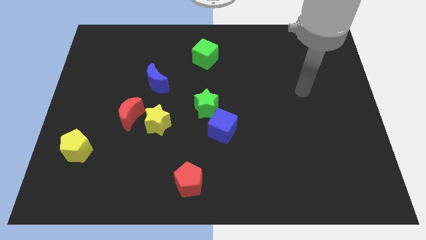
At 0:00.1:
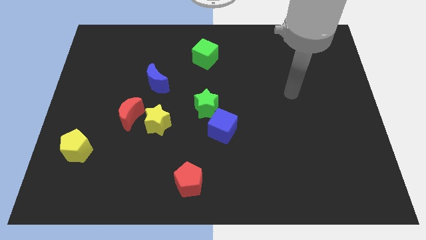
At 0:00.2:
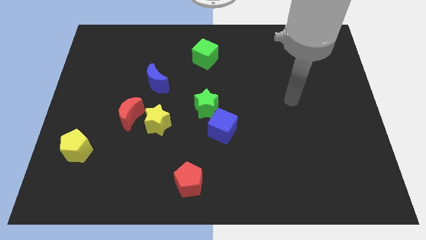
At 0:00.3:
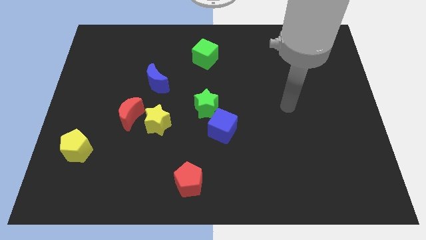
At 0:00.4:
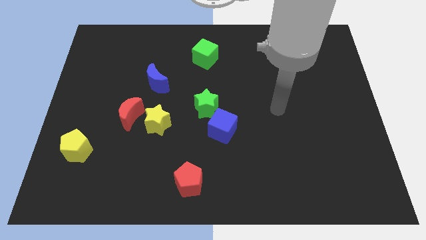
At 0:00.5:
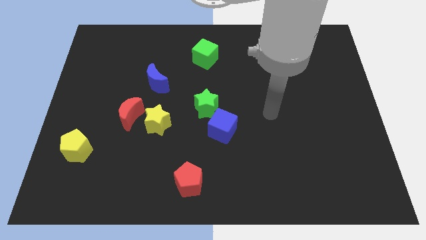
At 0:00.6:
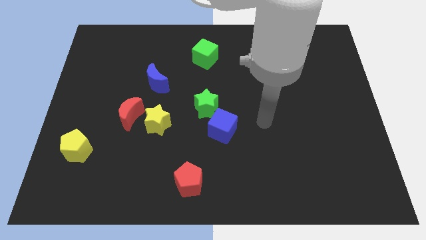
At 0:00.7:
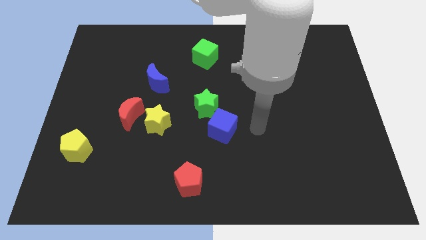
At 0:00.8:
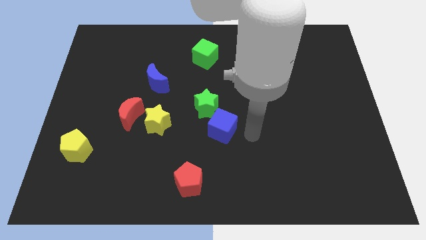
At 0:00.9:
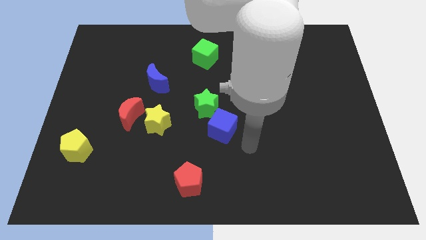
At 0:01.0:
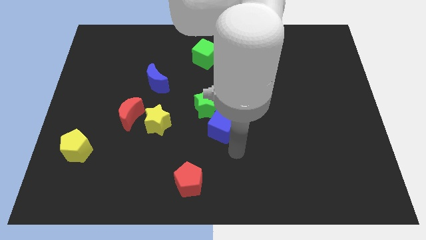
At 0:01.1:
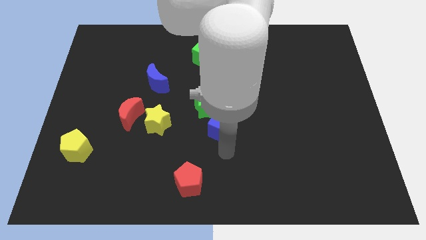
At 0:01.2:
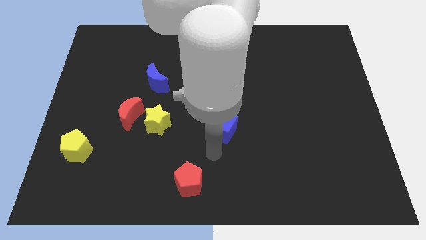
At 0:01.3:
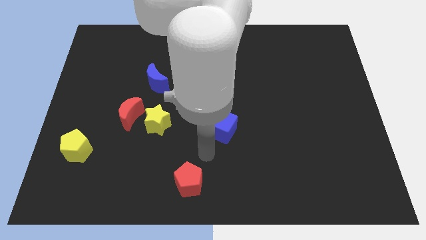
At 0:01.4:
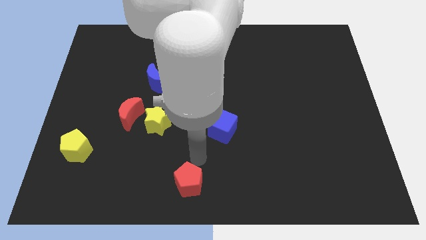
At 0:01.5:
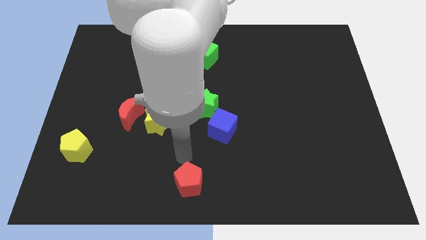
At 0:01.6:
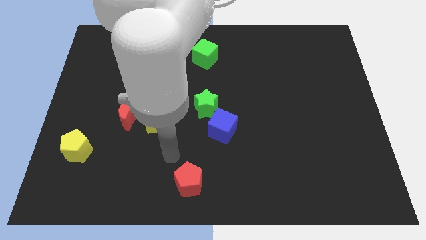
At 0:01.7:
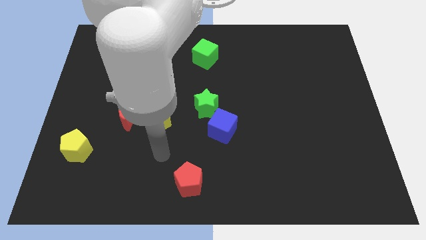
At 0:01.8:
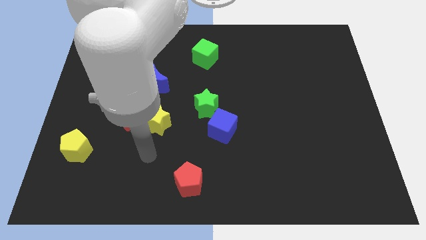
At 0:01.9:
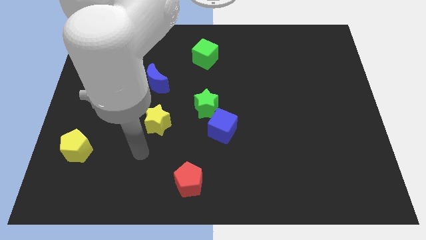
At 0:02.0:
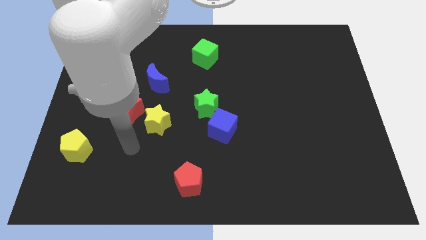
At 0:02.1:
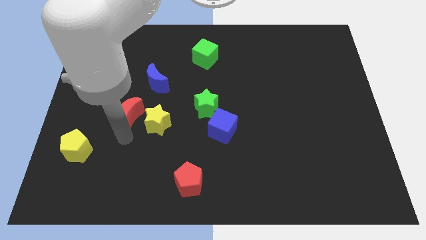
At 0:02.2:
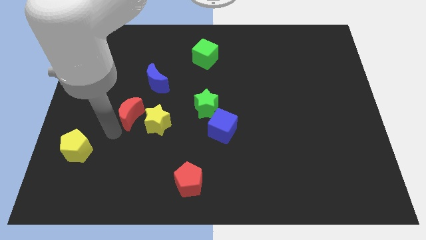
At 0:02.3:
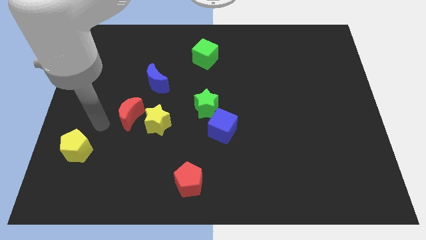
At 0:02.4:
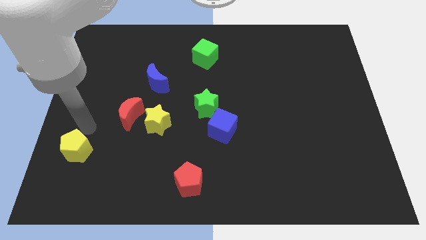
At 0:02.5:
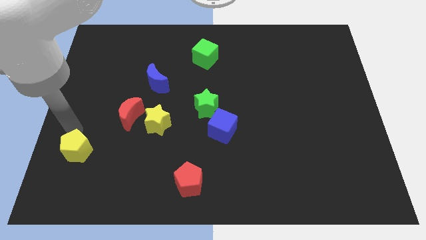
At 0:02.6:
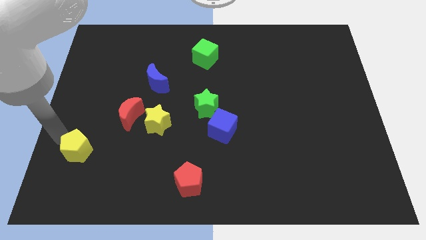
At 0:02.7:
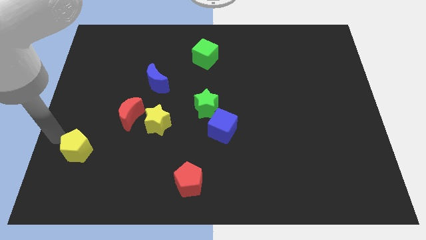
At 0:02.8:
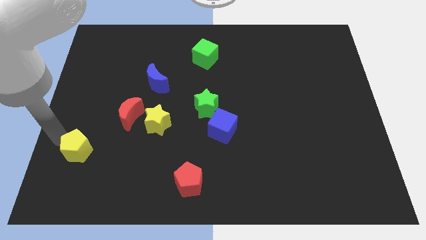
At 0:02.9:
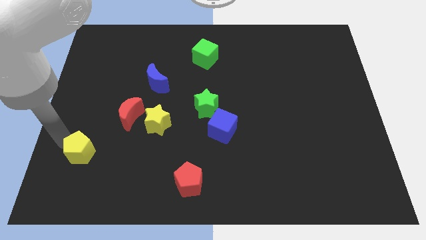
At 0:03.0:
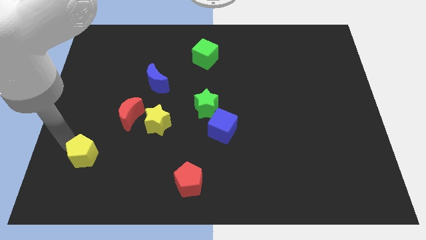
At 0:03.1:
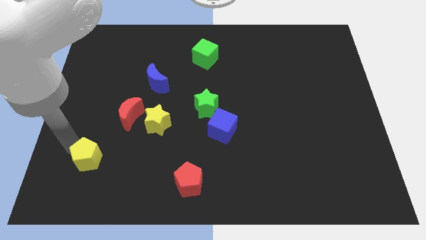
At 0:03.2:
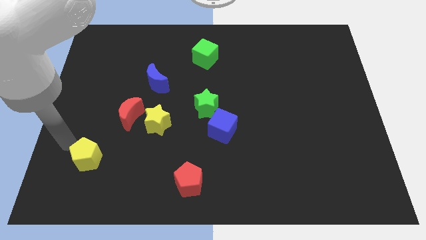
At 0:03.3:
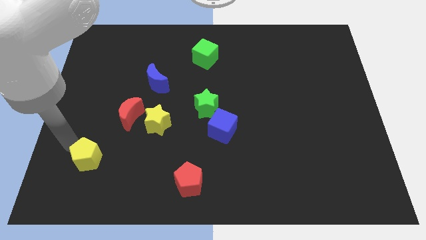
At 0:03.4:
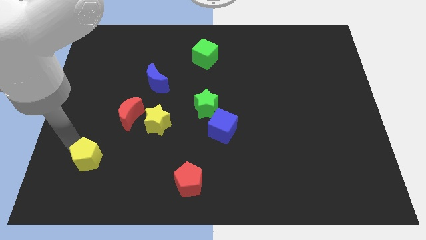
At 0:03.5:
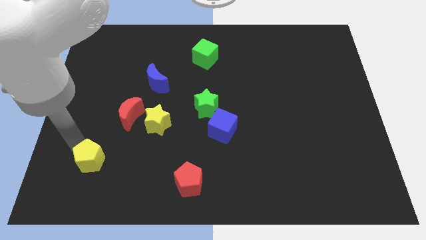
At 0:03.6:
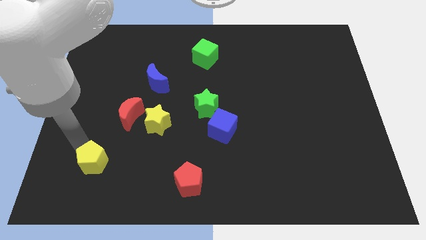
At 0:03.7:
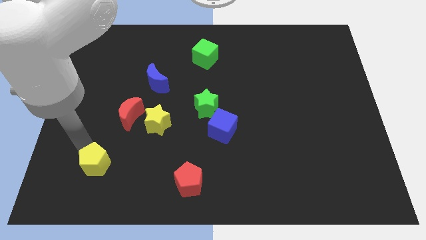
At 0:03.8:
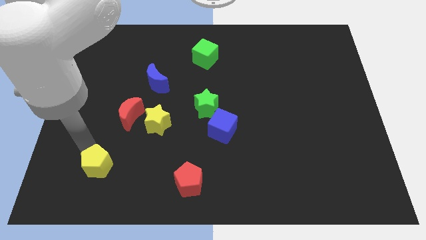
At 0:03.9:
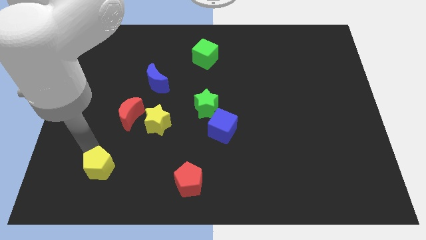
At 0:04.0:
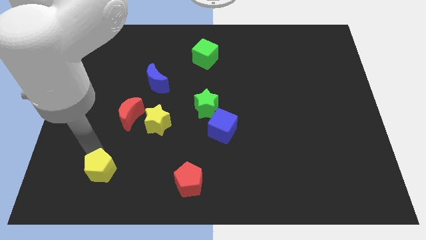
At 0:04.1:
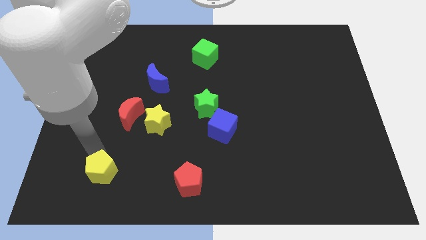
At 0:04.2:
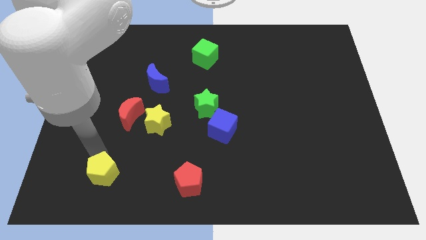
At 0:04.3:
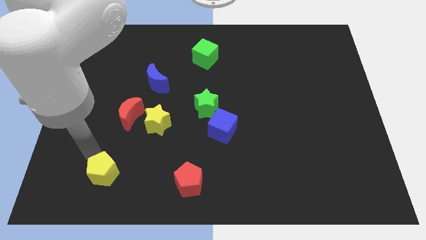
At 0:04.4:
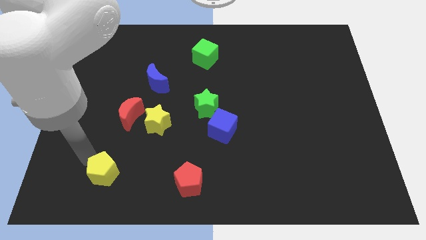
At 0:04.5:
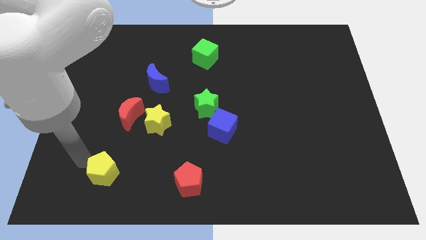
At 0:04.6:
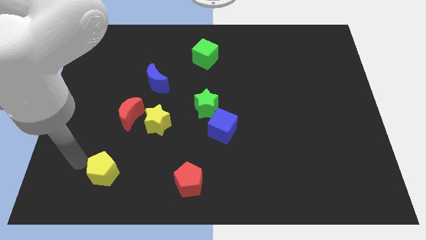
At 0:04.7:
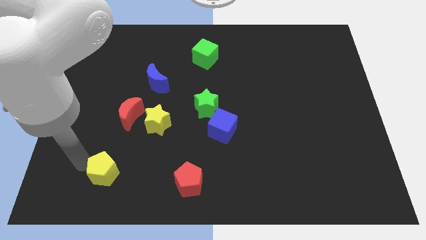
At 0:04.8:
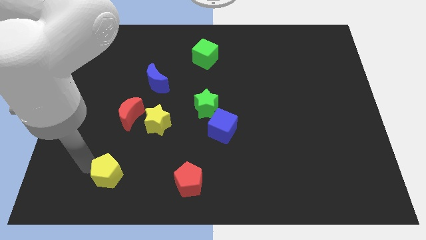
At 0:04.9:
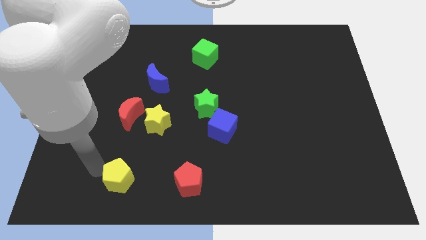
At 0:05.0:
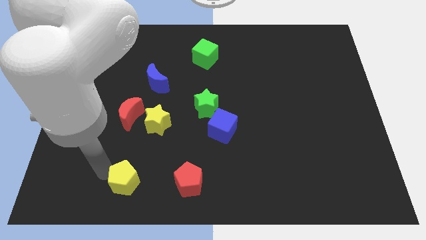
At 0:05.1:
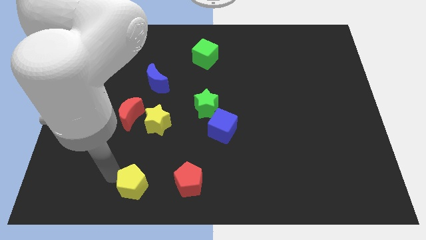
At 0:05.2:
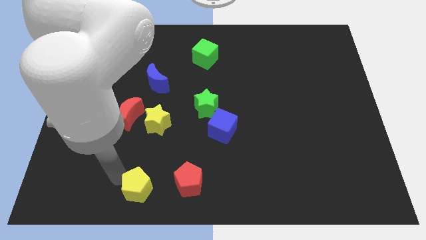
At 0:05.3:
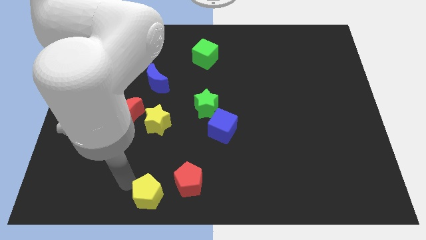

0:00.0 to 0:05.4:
slide the yellow pentagon to the bottom side

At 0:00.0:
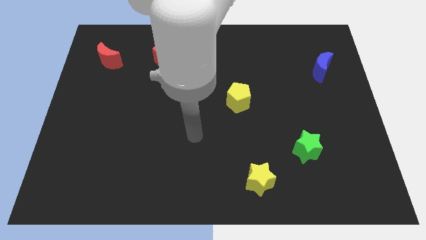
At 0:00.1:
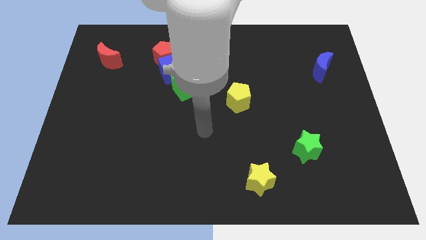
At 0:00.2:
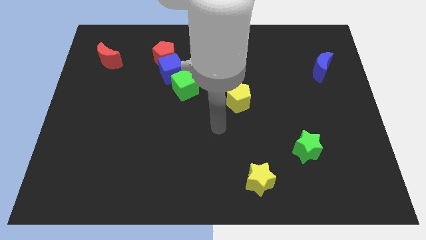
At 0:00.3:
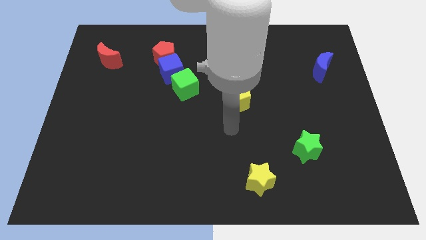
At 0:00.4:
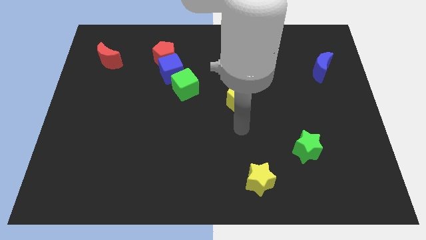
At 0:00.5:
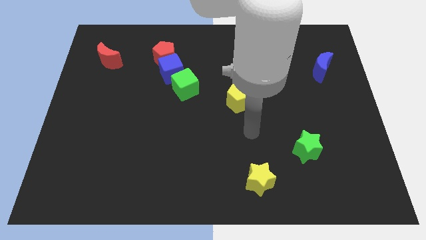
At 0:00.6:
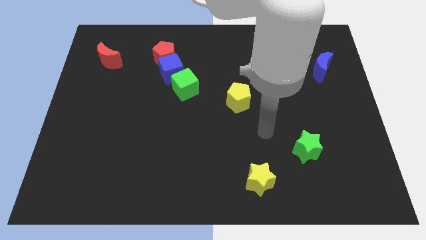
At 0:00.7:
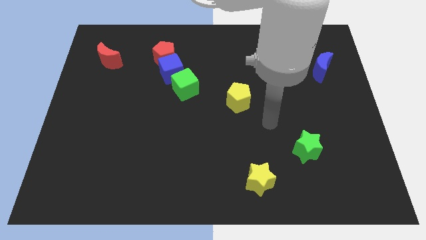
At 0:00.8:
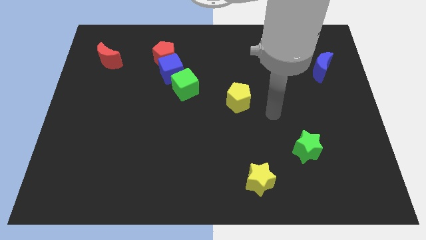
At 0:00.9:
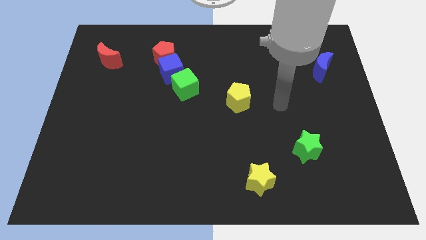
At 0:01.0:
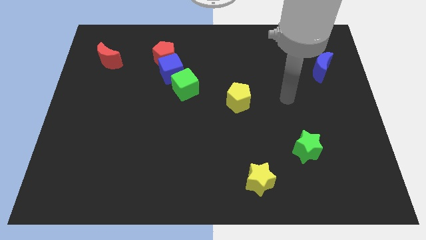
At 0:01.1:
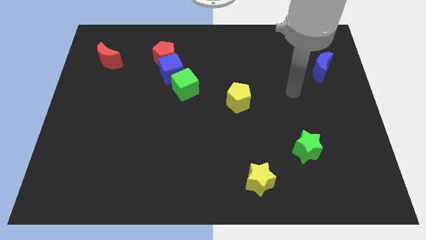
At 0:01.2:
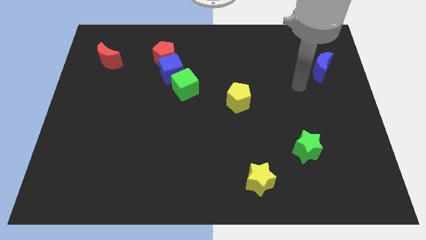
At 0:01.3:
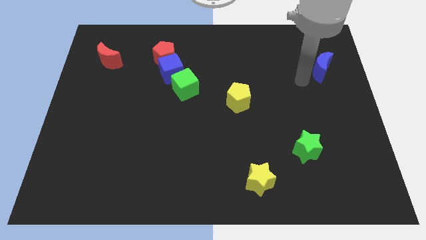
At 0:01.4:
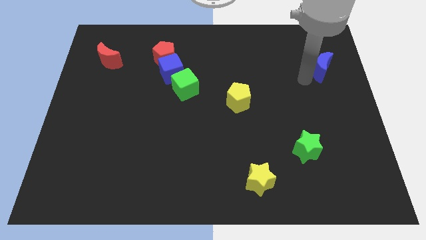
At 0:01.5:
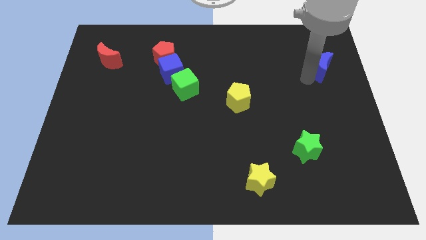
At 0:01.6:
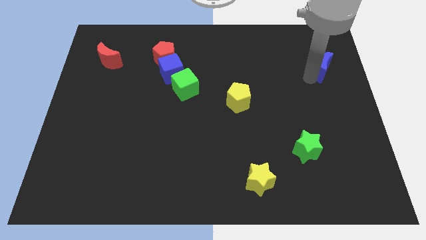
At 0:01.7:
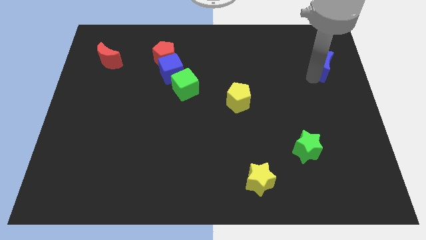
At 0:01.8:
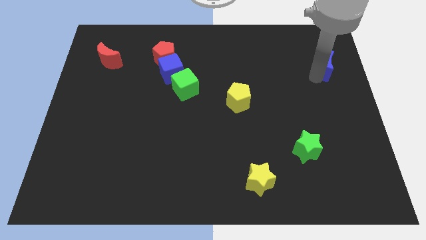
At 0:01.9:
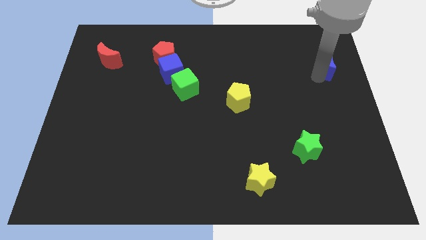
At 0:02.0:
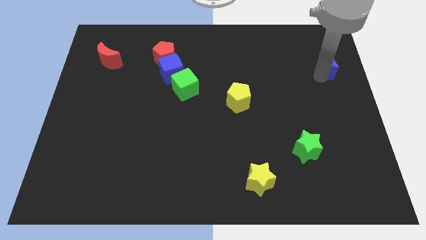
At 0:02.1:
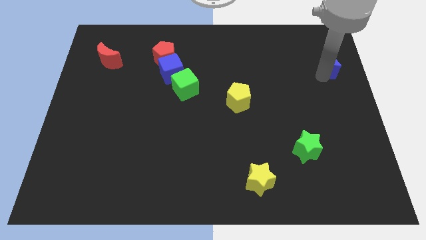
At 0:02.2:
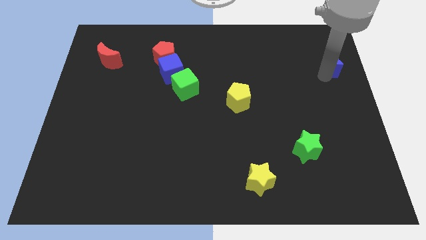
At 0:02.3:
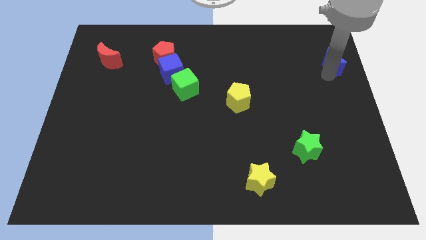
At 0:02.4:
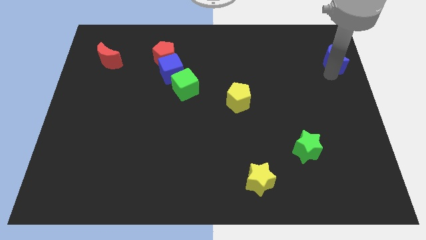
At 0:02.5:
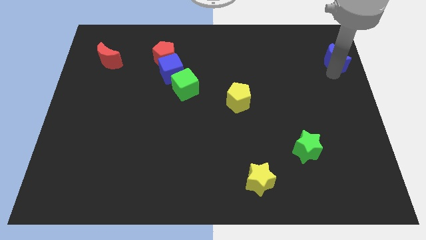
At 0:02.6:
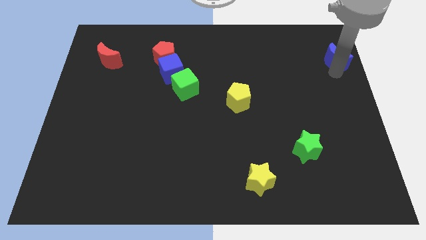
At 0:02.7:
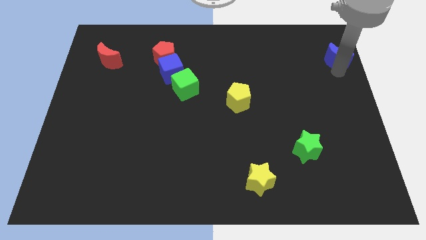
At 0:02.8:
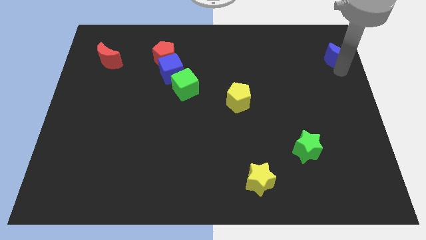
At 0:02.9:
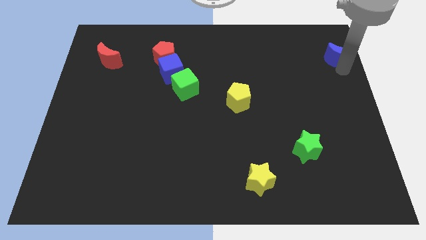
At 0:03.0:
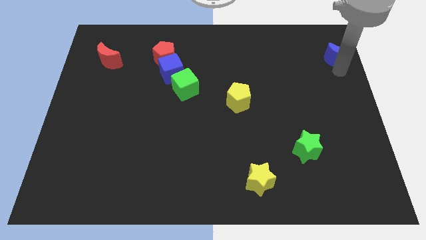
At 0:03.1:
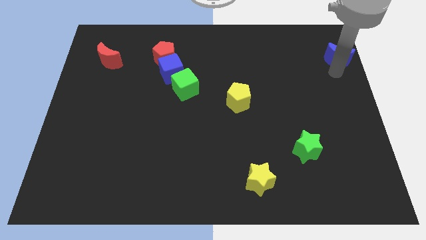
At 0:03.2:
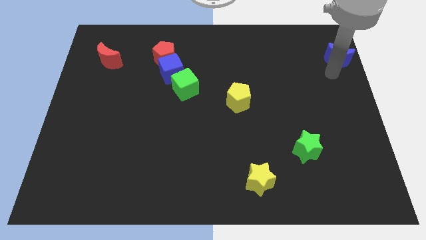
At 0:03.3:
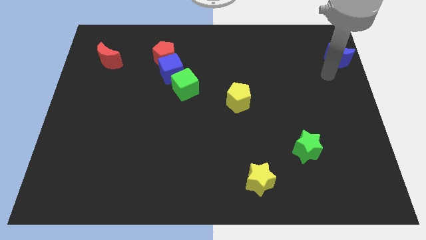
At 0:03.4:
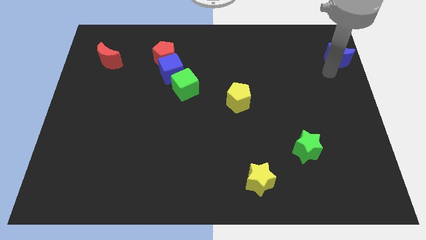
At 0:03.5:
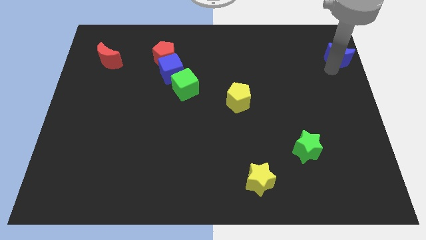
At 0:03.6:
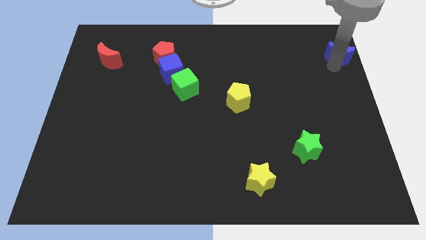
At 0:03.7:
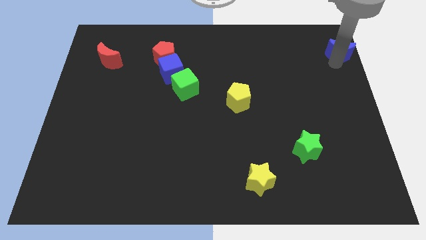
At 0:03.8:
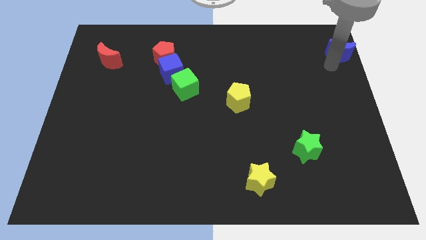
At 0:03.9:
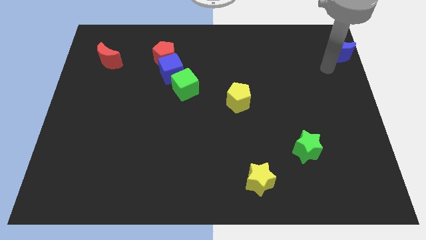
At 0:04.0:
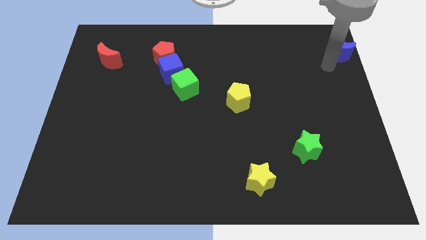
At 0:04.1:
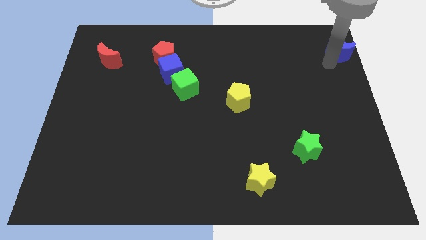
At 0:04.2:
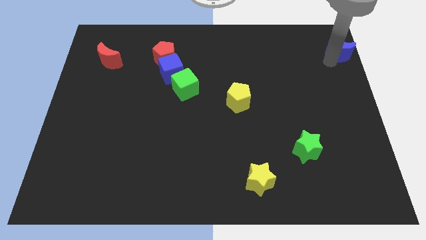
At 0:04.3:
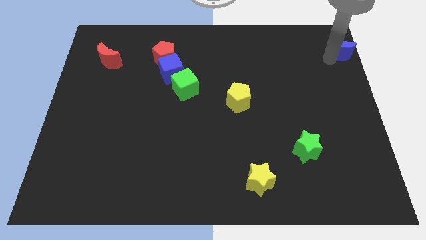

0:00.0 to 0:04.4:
slide the blue moon to the upper right corner
